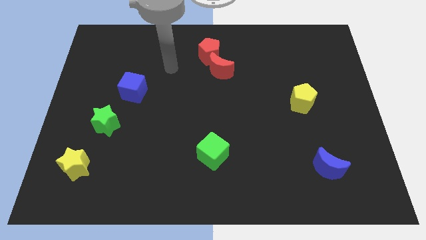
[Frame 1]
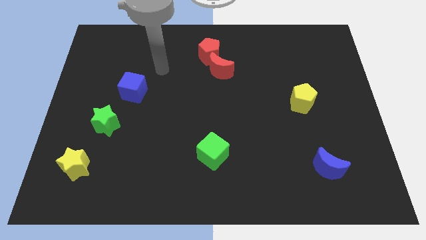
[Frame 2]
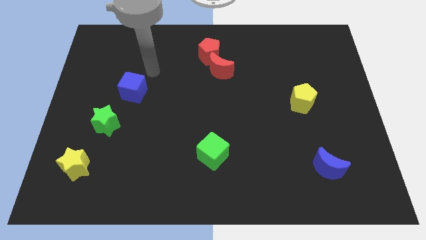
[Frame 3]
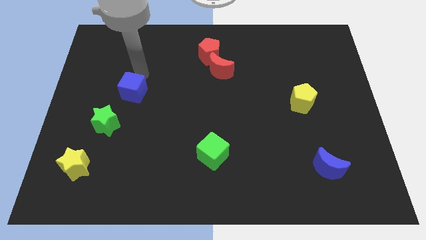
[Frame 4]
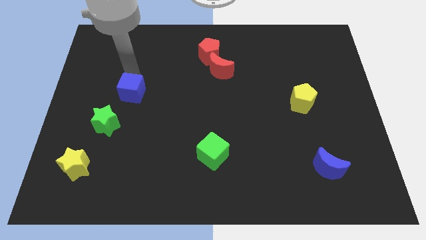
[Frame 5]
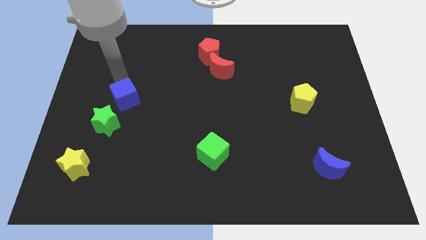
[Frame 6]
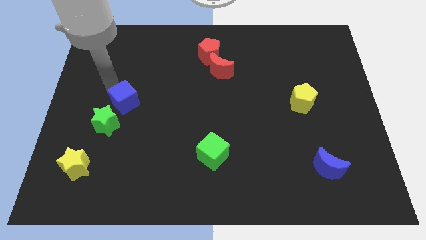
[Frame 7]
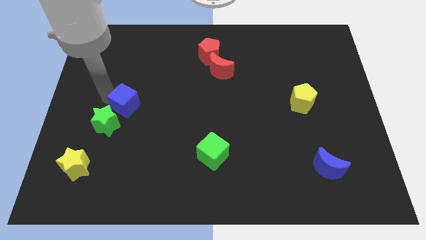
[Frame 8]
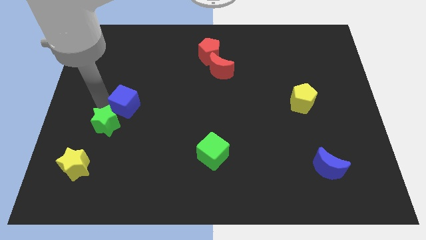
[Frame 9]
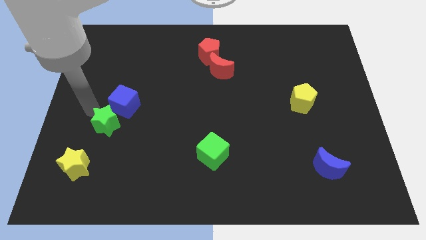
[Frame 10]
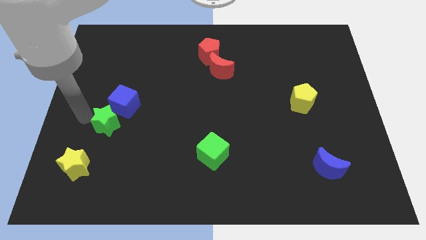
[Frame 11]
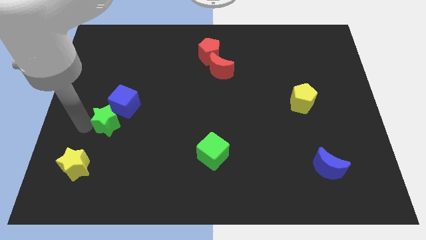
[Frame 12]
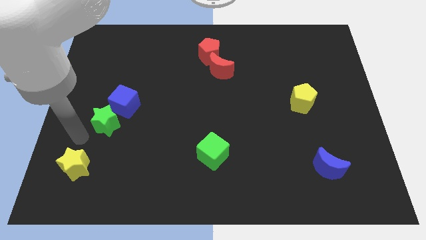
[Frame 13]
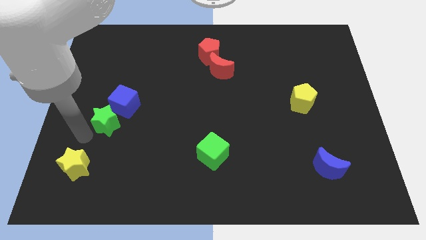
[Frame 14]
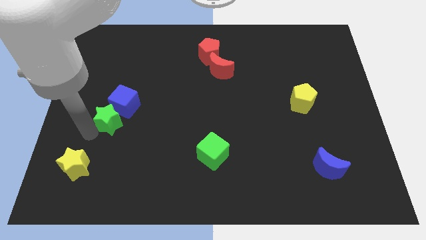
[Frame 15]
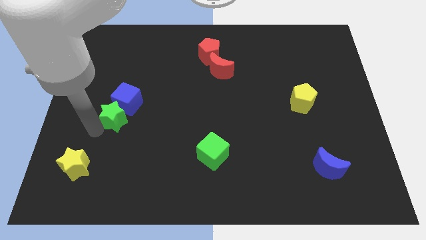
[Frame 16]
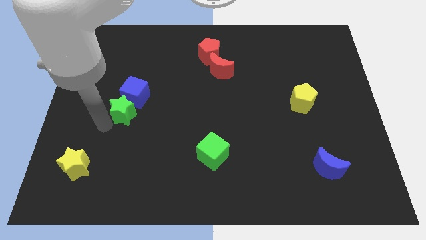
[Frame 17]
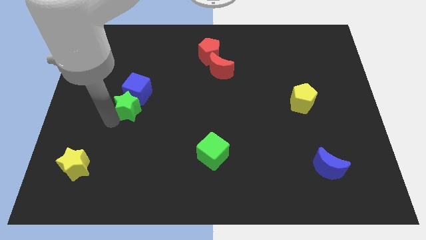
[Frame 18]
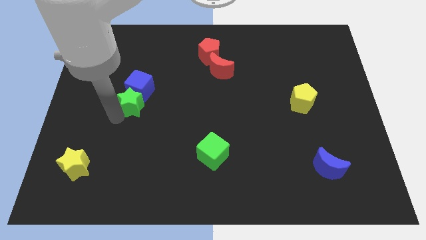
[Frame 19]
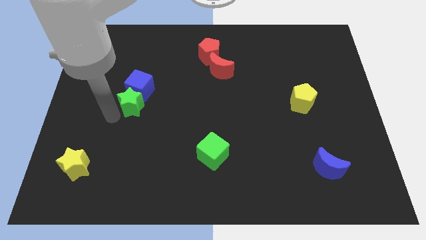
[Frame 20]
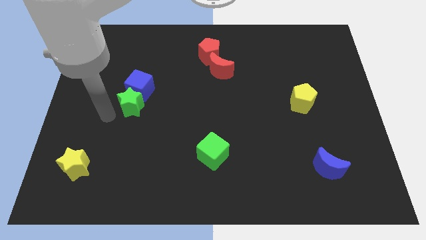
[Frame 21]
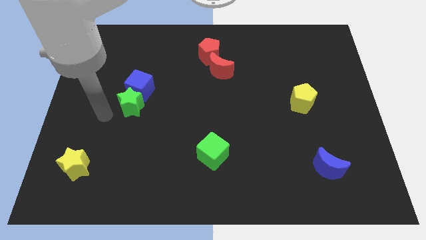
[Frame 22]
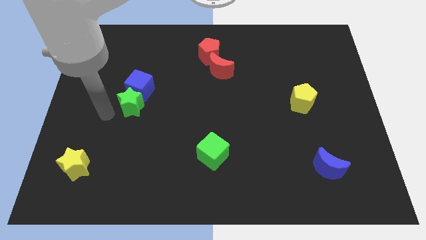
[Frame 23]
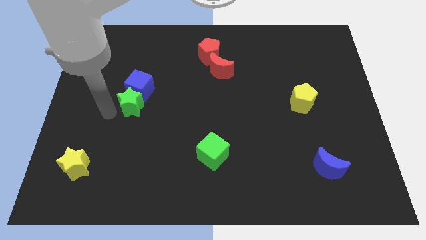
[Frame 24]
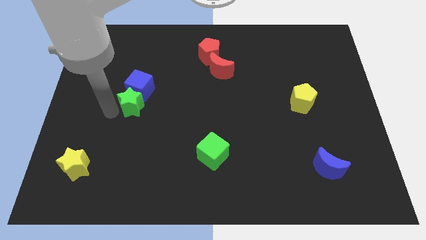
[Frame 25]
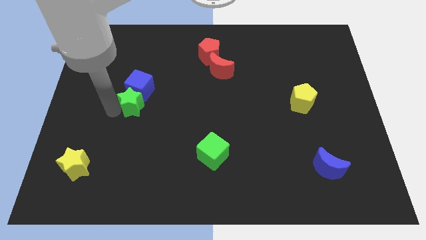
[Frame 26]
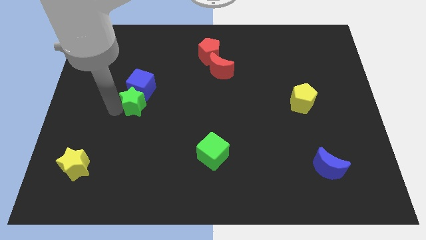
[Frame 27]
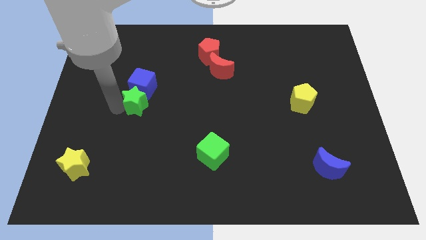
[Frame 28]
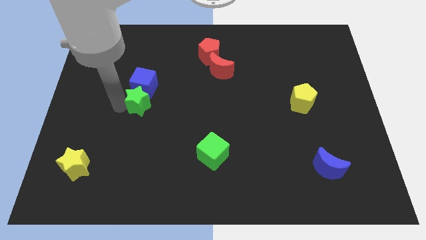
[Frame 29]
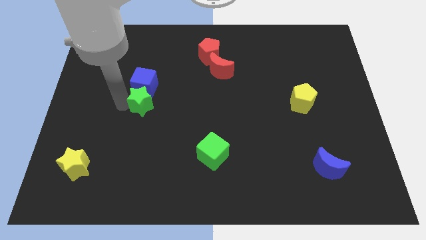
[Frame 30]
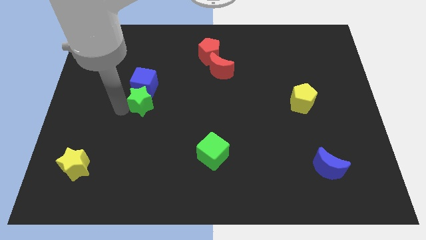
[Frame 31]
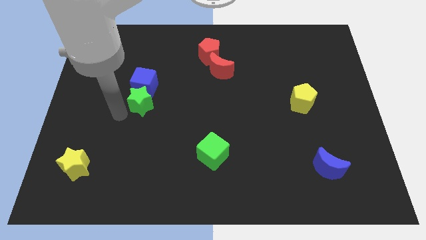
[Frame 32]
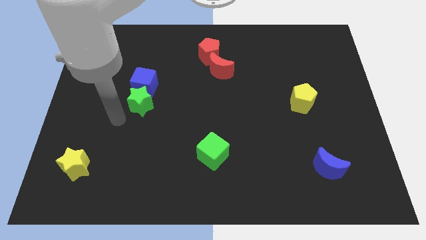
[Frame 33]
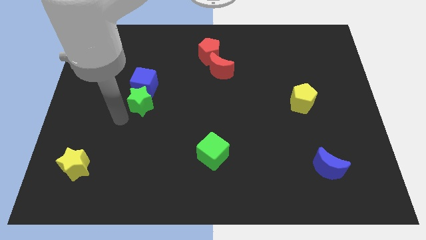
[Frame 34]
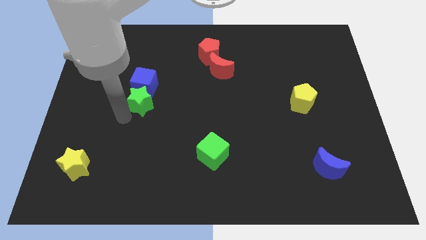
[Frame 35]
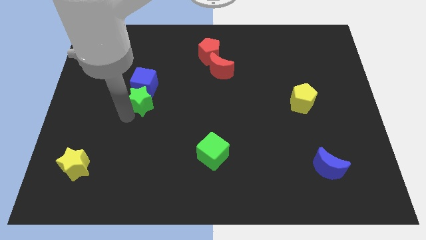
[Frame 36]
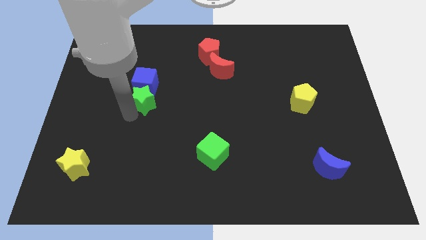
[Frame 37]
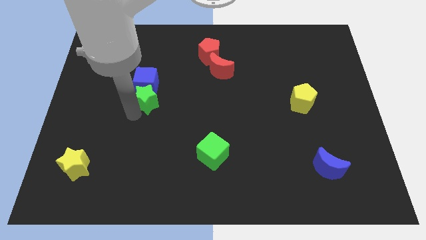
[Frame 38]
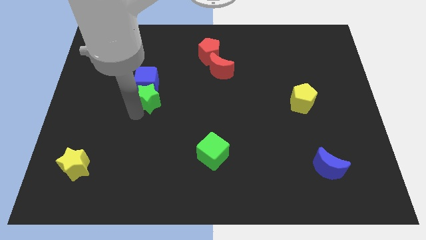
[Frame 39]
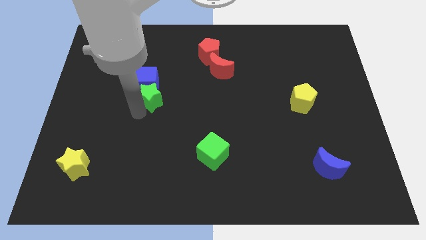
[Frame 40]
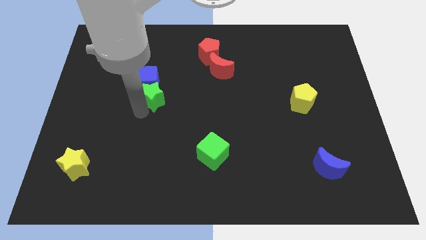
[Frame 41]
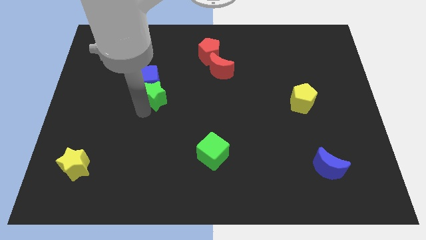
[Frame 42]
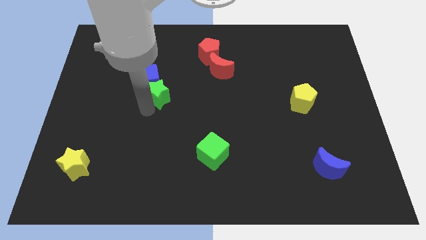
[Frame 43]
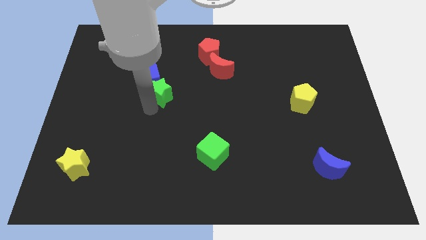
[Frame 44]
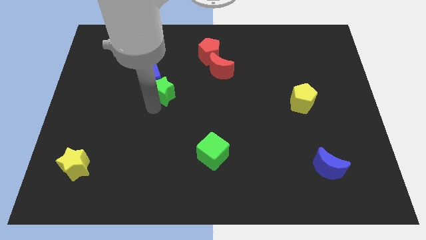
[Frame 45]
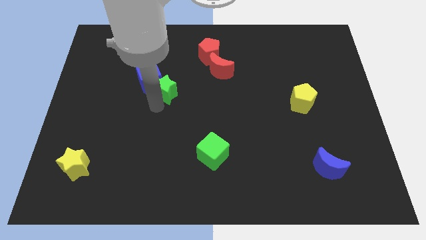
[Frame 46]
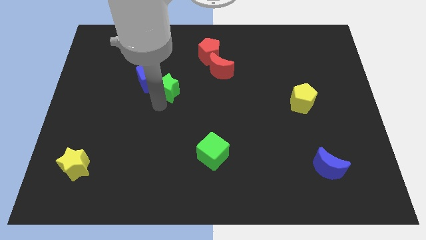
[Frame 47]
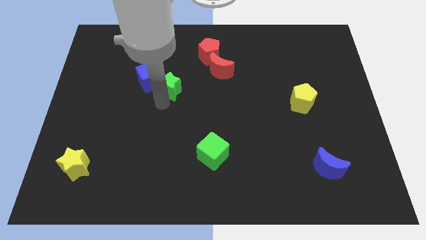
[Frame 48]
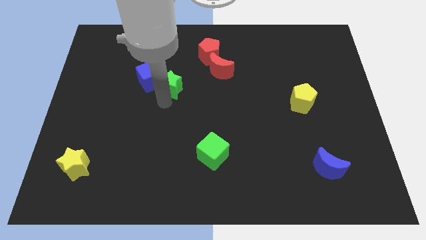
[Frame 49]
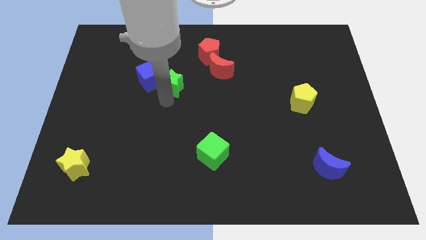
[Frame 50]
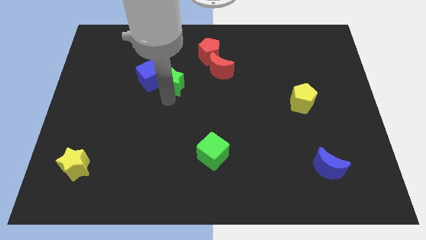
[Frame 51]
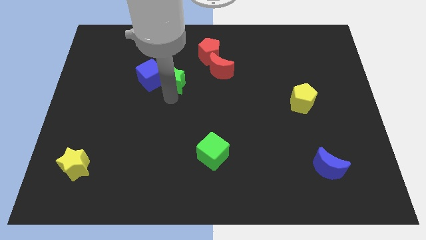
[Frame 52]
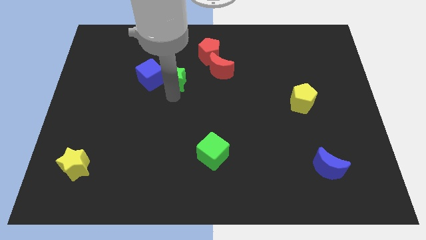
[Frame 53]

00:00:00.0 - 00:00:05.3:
move the green star to the bottom left of the red pentagon

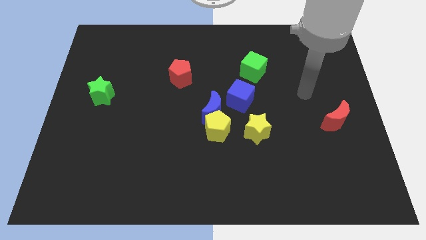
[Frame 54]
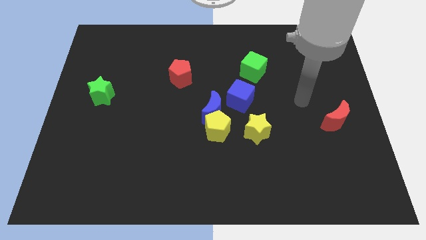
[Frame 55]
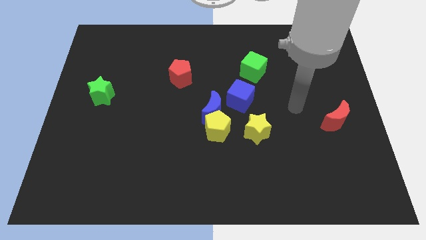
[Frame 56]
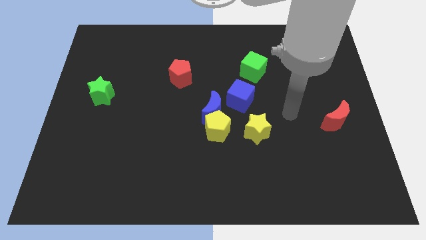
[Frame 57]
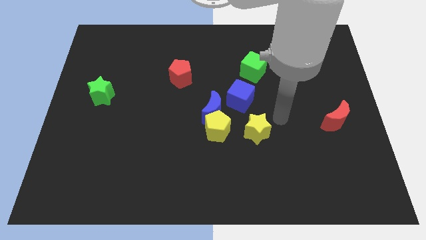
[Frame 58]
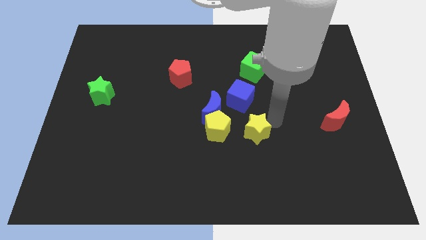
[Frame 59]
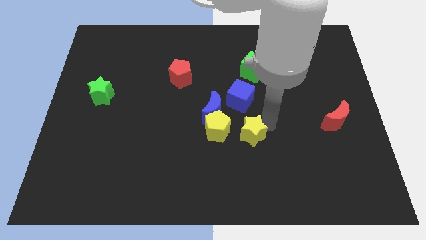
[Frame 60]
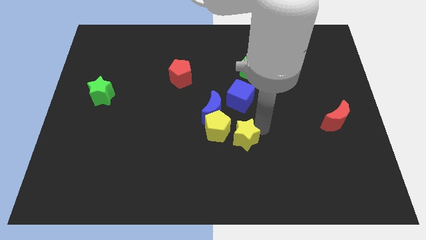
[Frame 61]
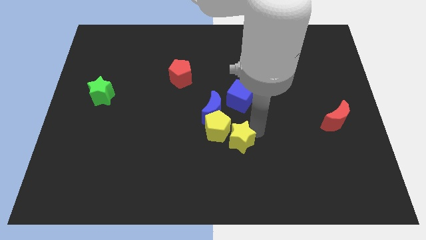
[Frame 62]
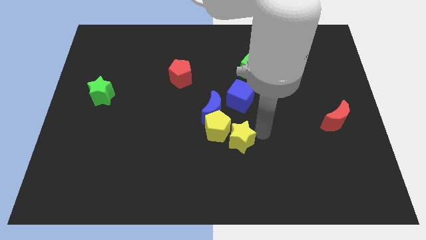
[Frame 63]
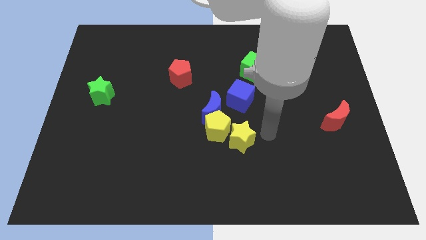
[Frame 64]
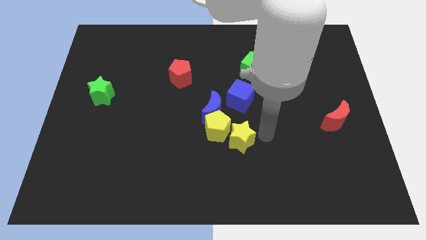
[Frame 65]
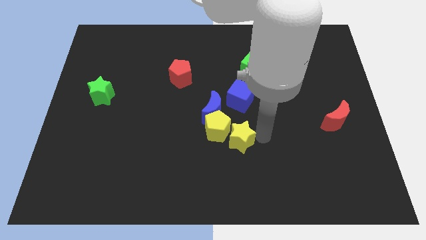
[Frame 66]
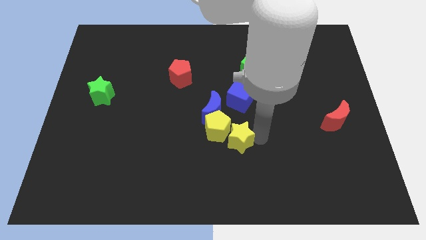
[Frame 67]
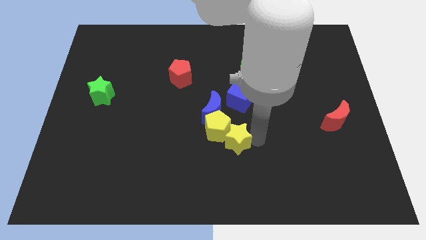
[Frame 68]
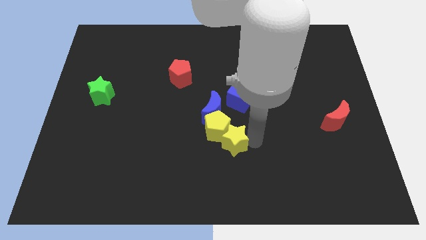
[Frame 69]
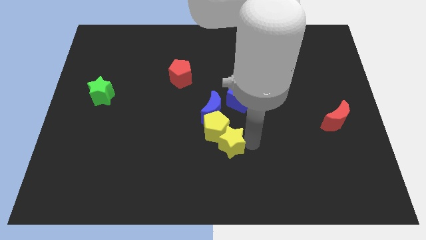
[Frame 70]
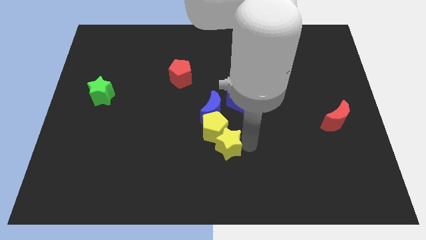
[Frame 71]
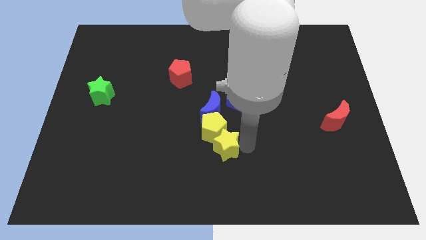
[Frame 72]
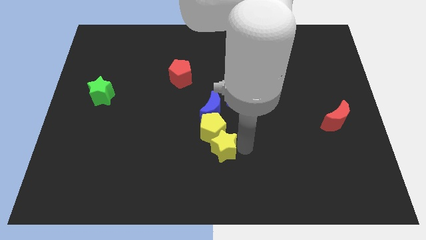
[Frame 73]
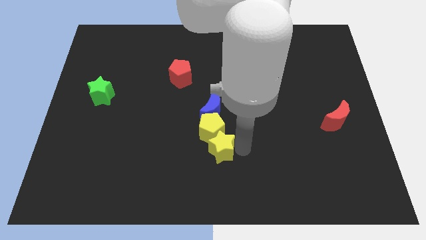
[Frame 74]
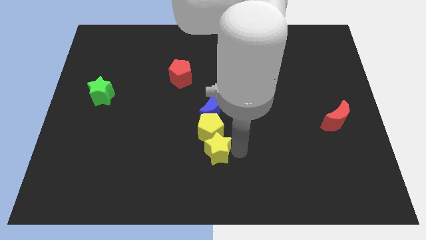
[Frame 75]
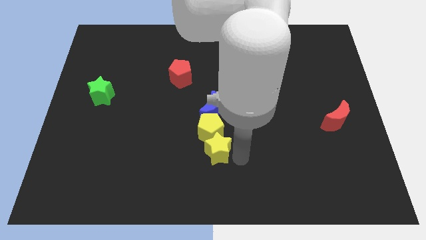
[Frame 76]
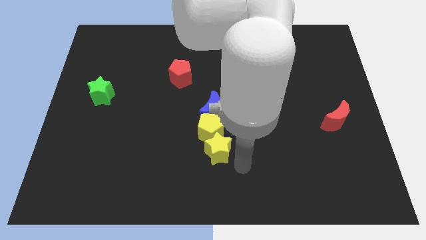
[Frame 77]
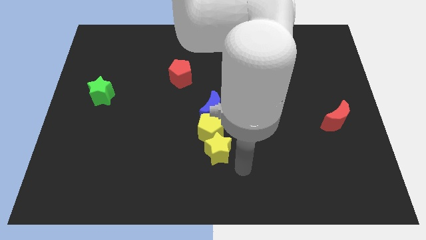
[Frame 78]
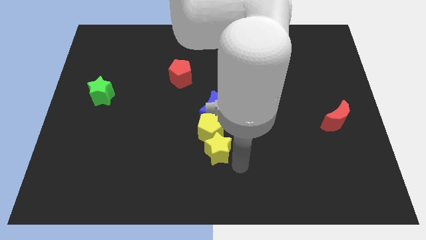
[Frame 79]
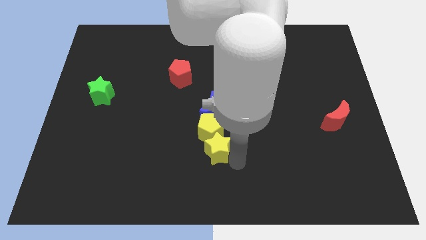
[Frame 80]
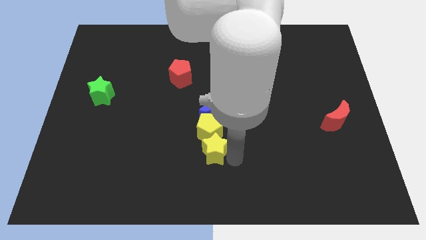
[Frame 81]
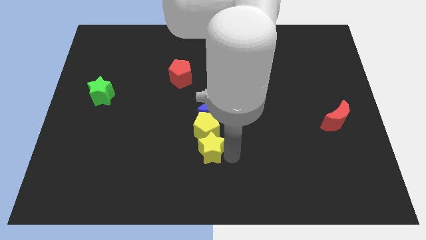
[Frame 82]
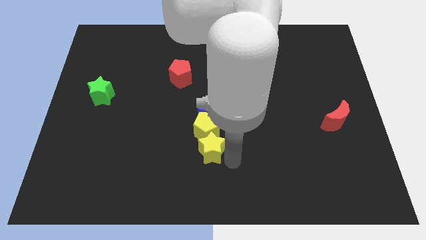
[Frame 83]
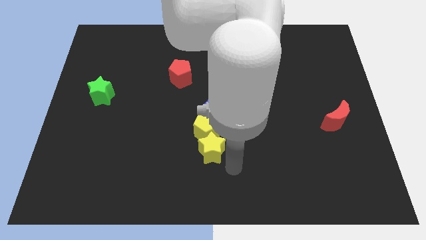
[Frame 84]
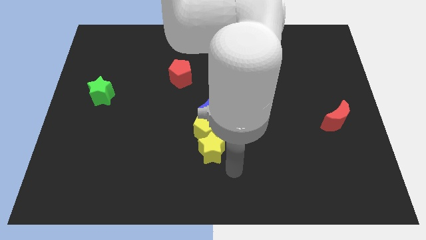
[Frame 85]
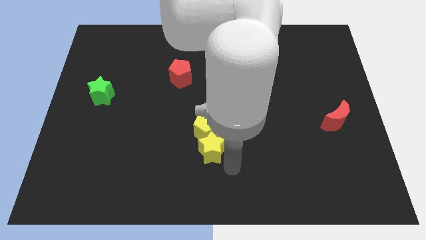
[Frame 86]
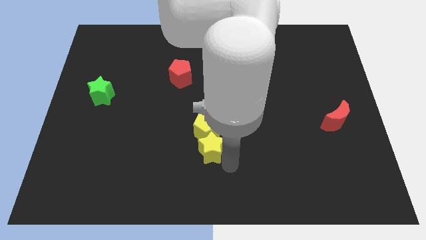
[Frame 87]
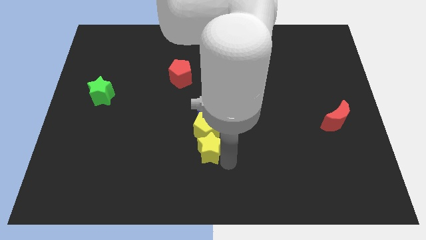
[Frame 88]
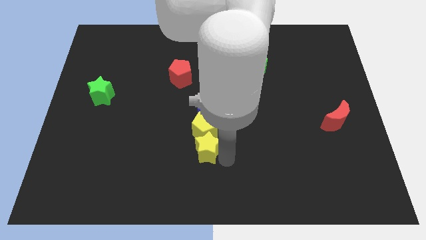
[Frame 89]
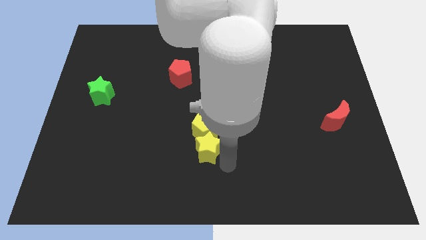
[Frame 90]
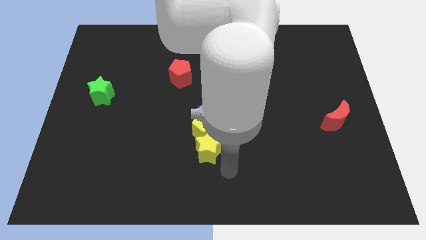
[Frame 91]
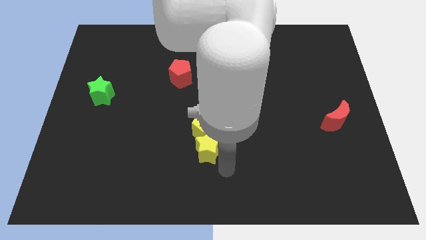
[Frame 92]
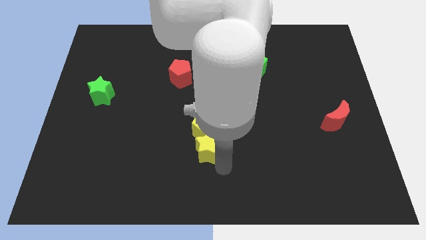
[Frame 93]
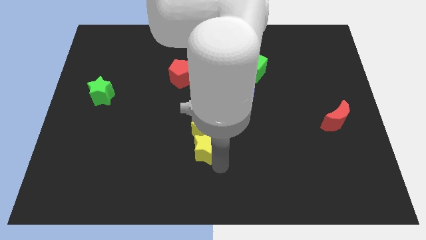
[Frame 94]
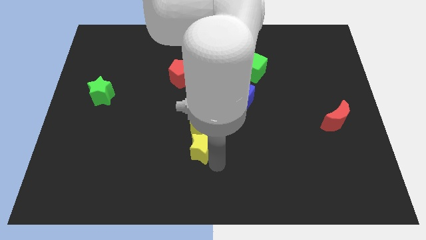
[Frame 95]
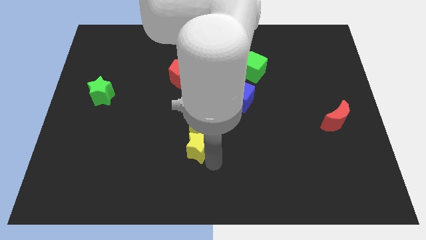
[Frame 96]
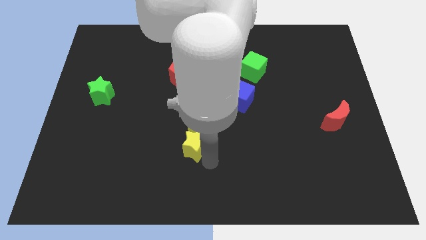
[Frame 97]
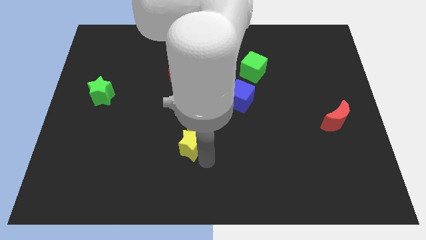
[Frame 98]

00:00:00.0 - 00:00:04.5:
slide the yellow star to the bottom left of the blue moon
